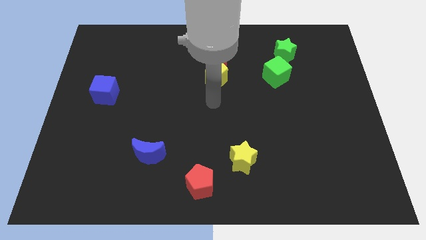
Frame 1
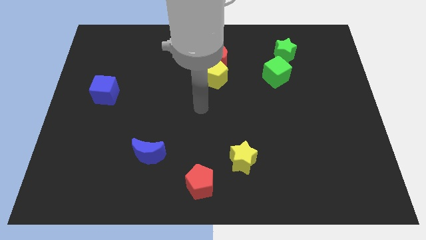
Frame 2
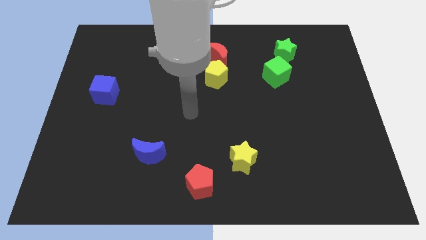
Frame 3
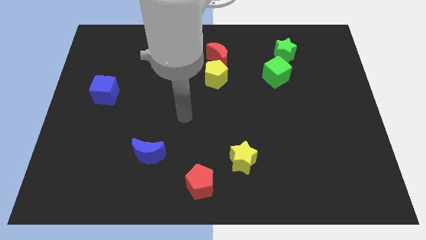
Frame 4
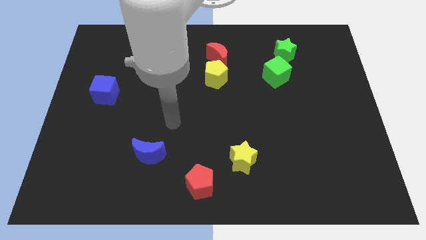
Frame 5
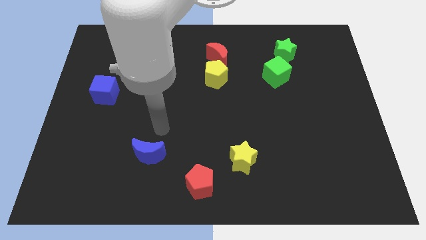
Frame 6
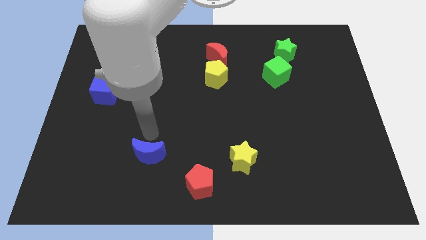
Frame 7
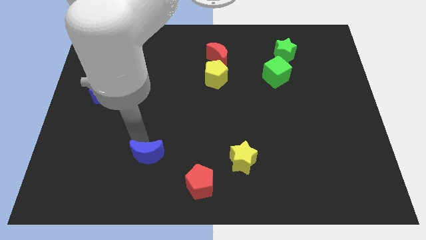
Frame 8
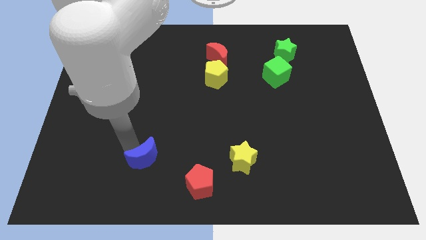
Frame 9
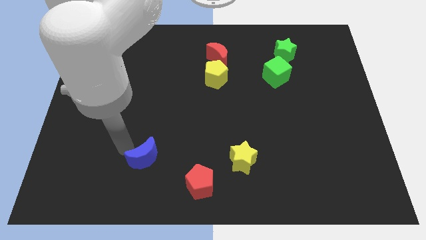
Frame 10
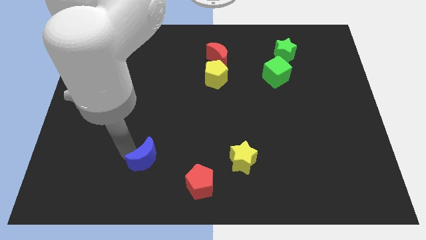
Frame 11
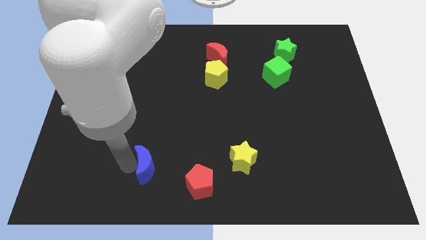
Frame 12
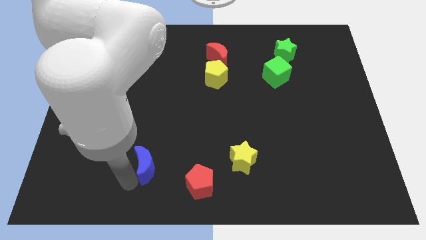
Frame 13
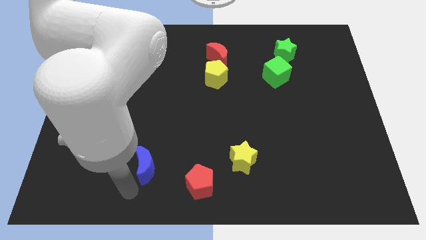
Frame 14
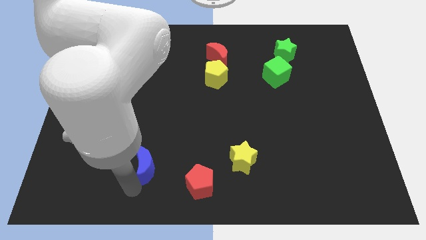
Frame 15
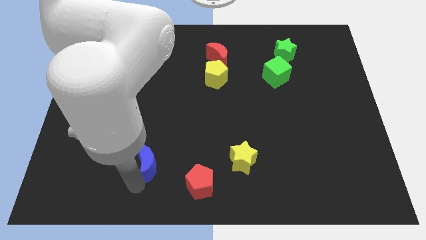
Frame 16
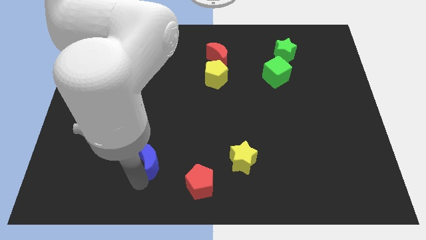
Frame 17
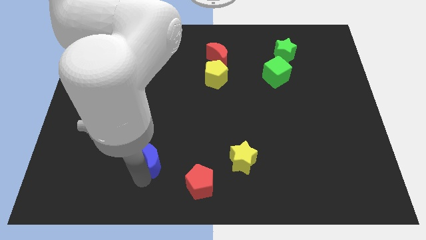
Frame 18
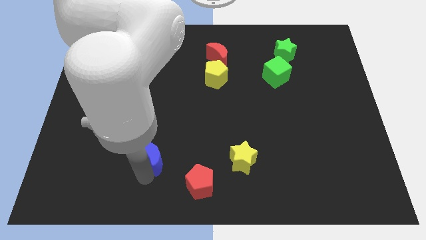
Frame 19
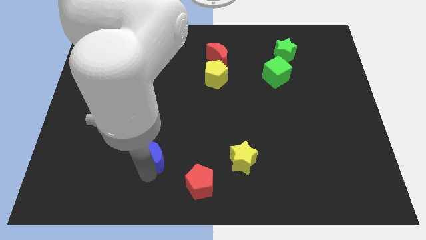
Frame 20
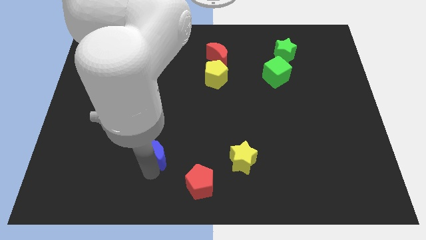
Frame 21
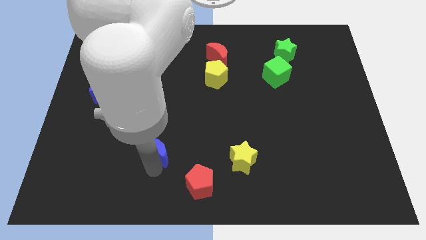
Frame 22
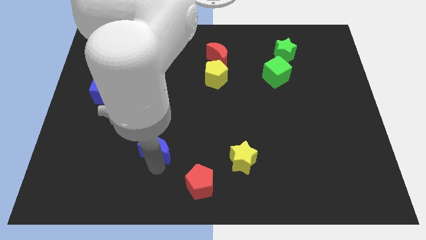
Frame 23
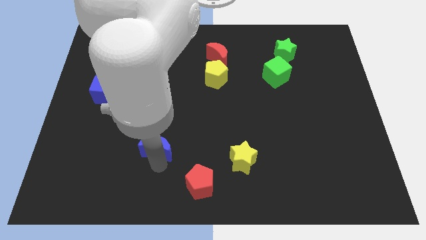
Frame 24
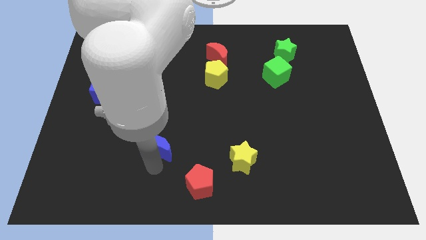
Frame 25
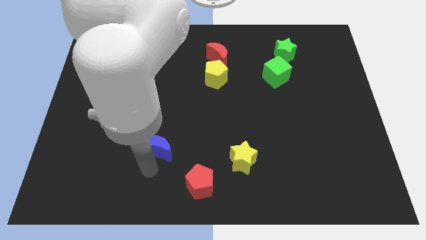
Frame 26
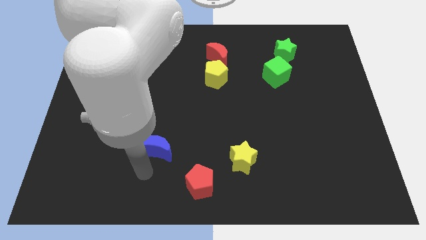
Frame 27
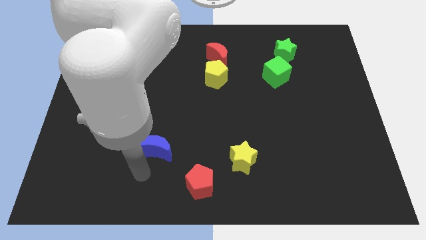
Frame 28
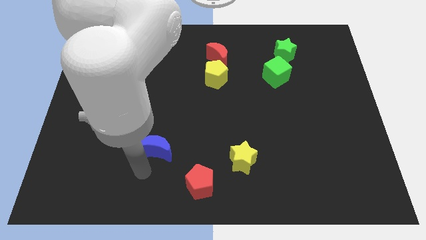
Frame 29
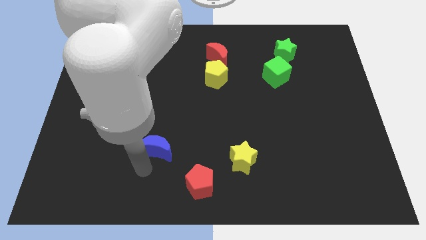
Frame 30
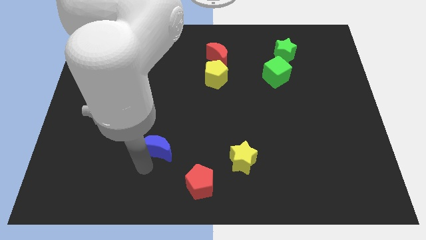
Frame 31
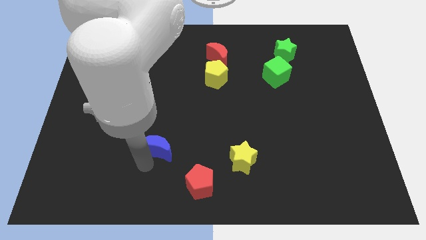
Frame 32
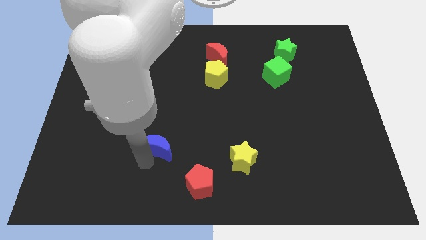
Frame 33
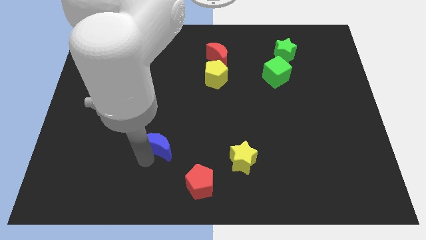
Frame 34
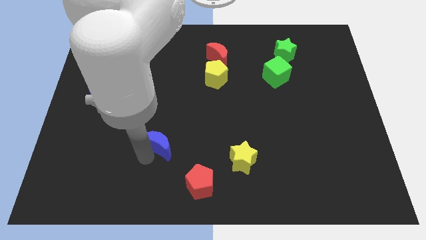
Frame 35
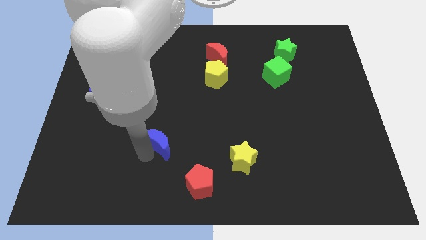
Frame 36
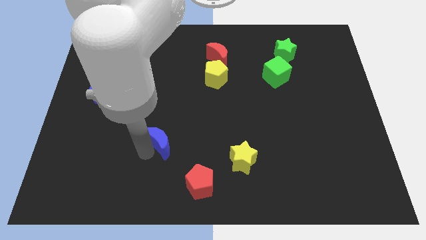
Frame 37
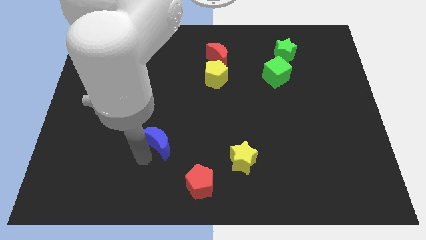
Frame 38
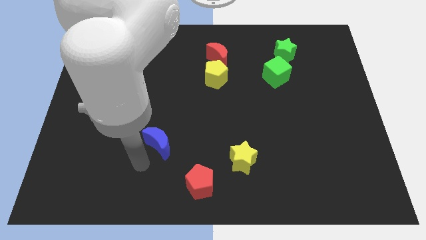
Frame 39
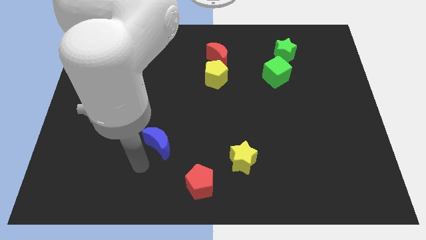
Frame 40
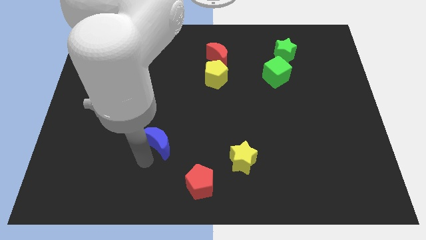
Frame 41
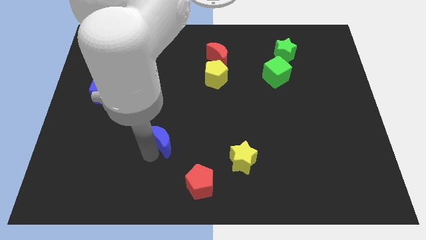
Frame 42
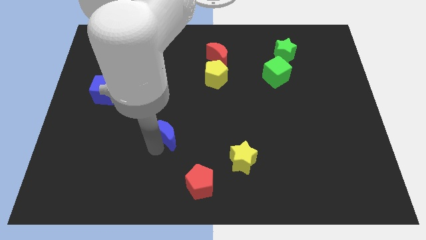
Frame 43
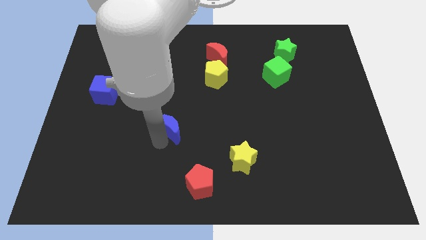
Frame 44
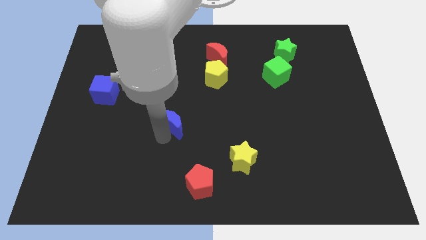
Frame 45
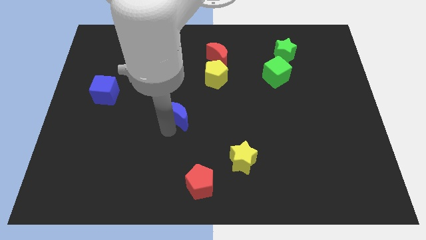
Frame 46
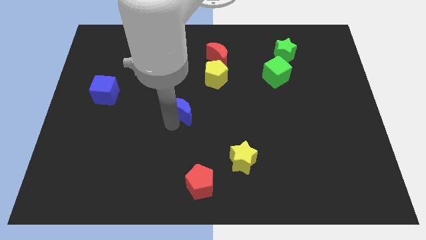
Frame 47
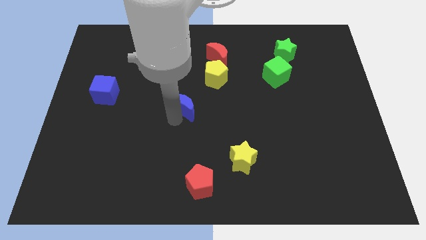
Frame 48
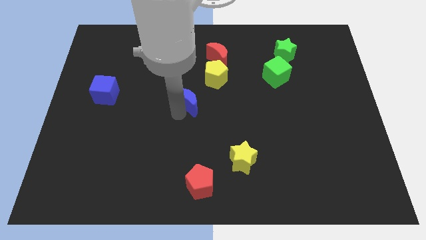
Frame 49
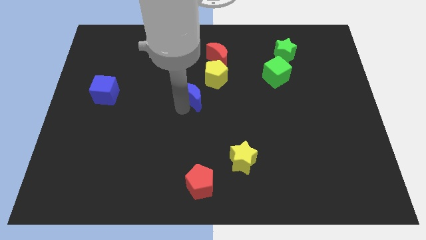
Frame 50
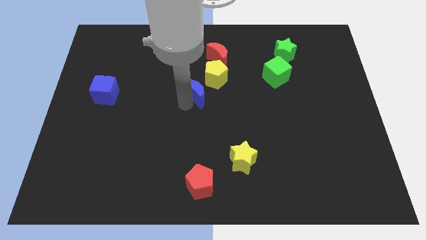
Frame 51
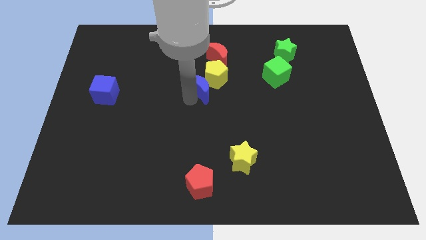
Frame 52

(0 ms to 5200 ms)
slide the blue moon towards the yellow pentagon

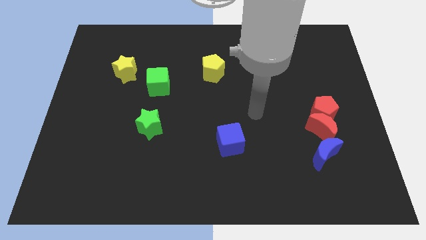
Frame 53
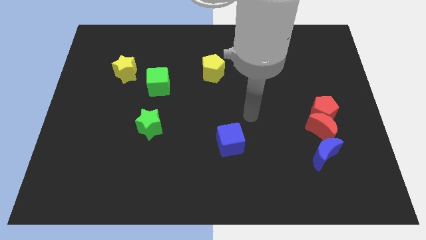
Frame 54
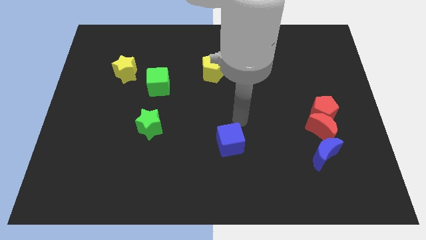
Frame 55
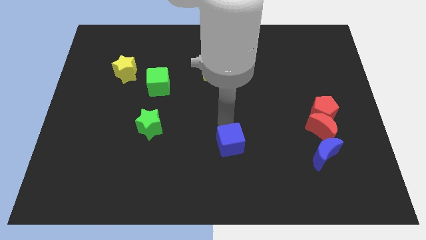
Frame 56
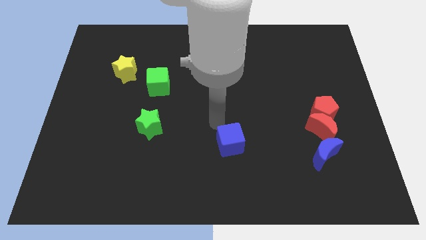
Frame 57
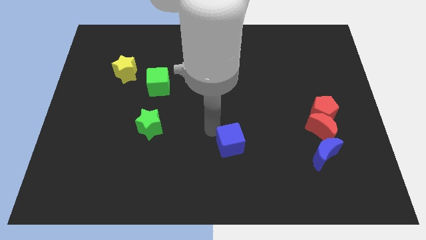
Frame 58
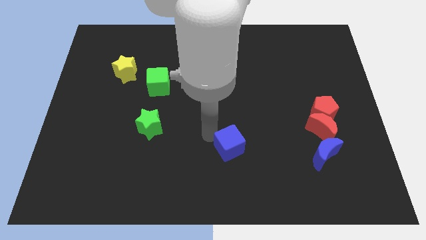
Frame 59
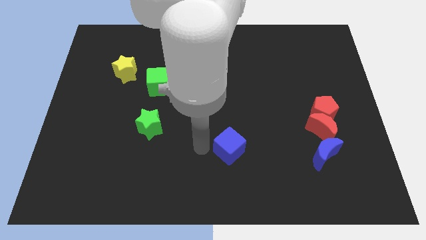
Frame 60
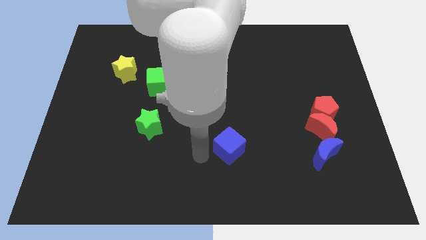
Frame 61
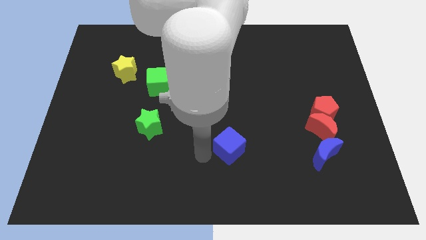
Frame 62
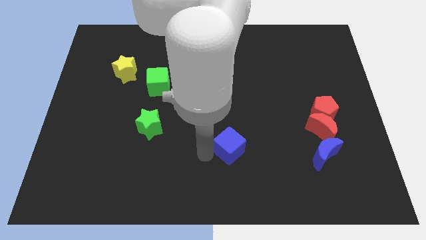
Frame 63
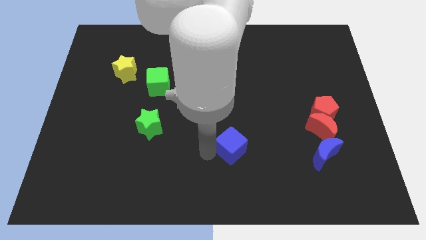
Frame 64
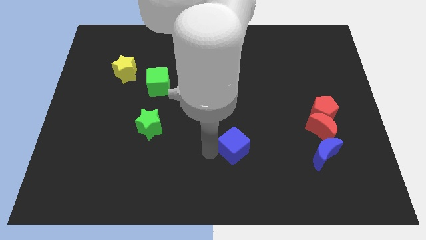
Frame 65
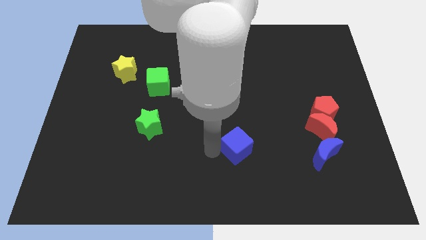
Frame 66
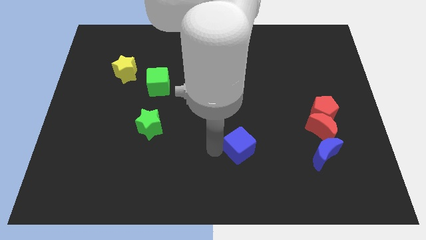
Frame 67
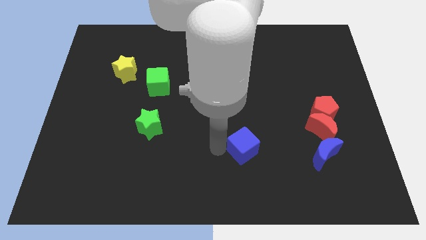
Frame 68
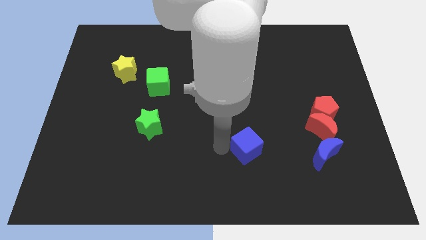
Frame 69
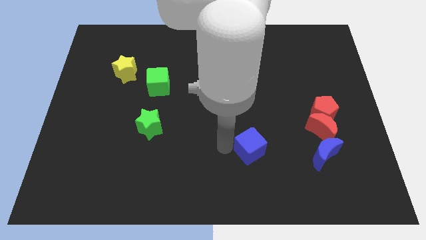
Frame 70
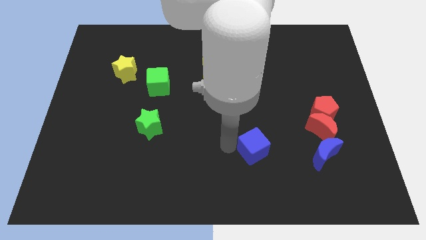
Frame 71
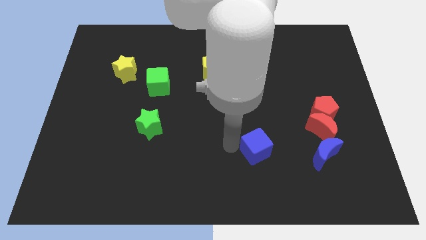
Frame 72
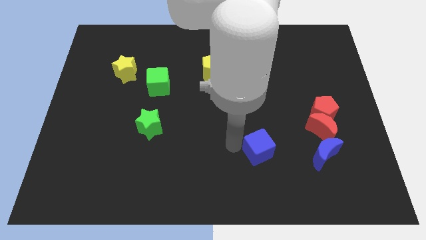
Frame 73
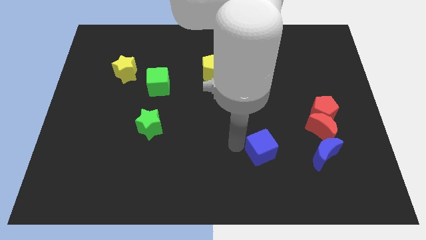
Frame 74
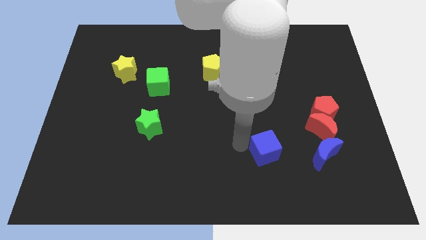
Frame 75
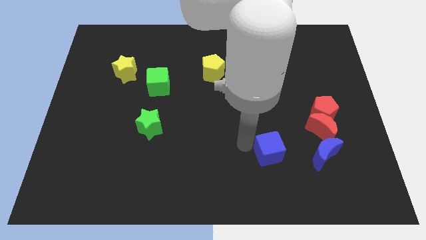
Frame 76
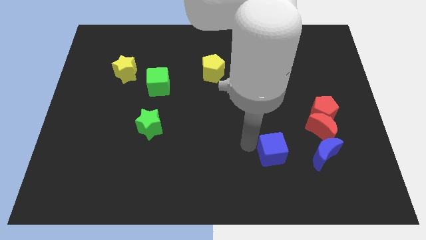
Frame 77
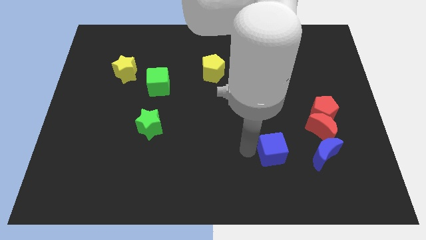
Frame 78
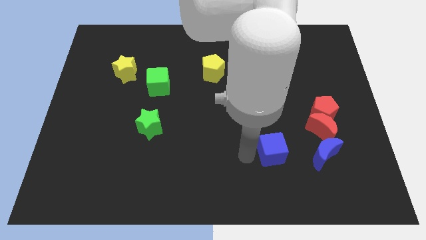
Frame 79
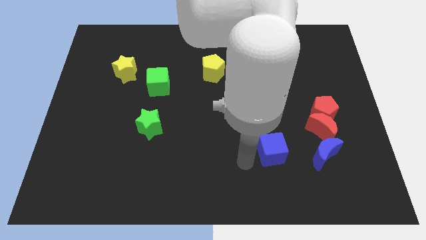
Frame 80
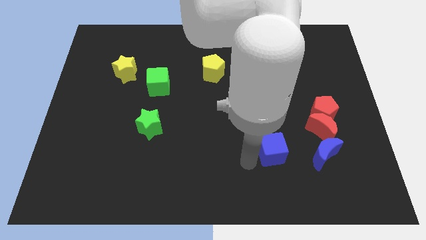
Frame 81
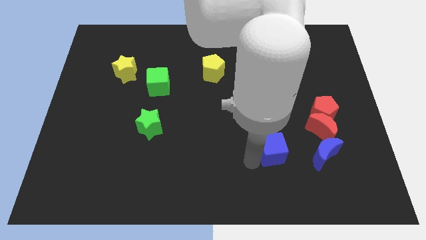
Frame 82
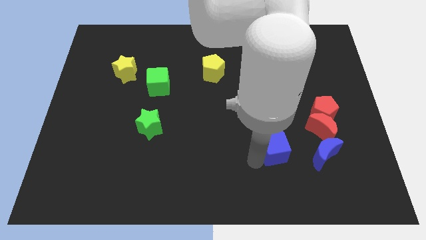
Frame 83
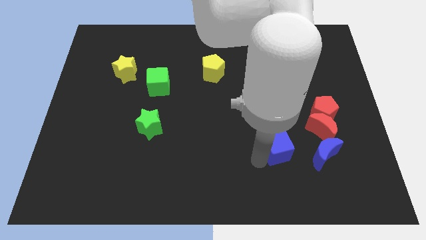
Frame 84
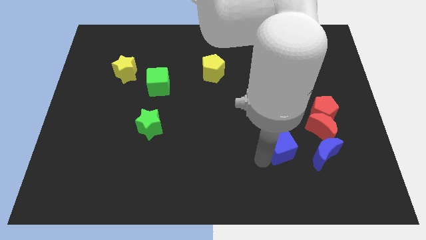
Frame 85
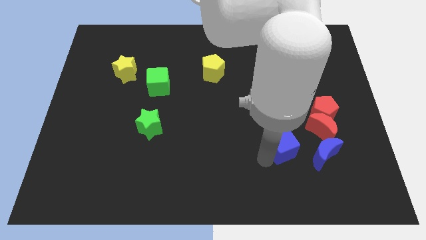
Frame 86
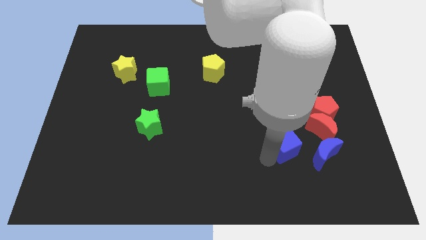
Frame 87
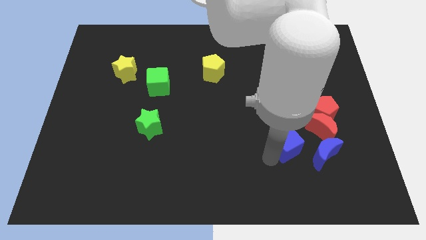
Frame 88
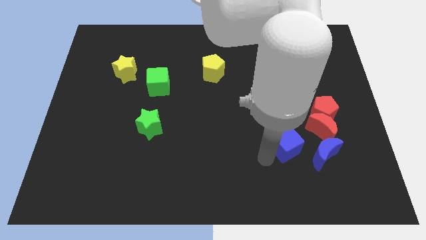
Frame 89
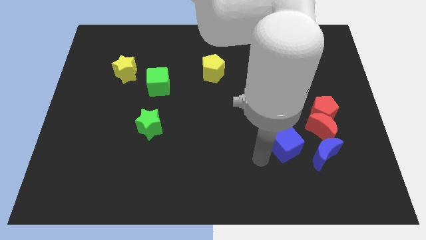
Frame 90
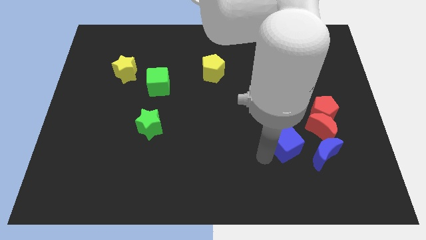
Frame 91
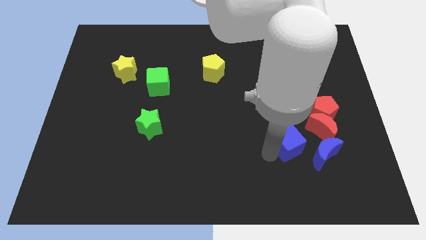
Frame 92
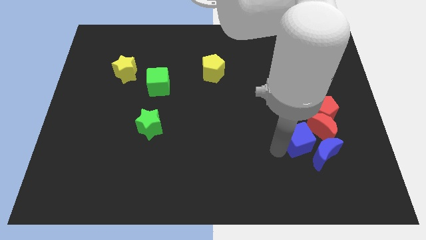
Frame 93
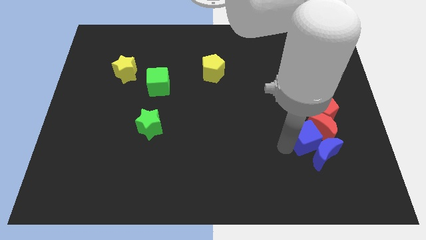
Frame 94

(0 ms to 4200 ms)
move the blue cube close to the red moon
